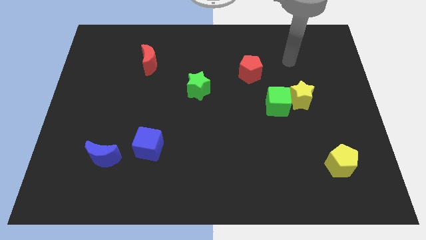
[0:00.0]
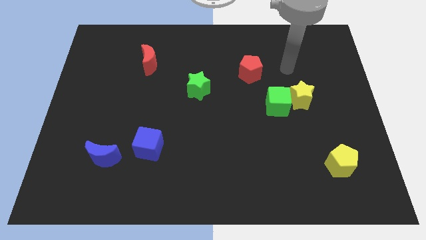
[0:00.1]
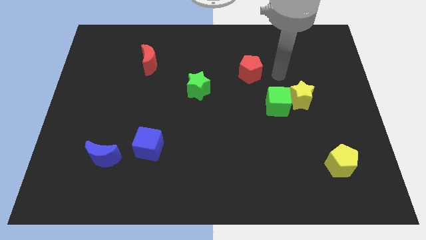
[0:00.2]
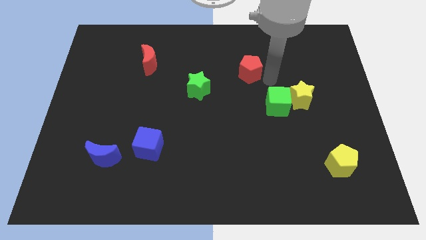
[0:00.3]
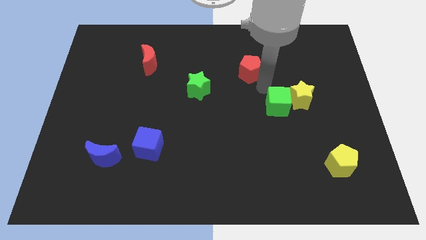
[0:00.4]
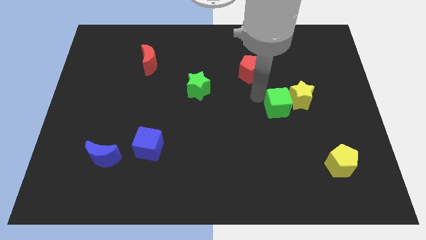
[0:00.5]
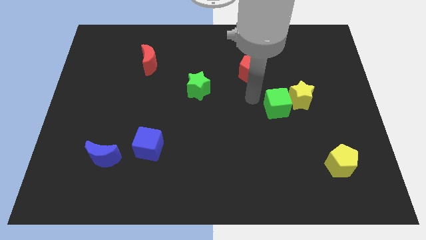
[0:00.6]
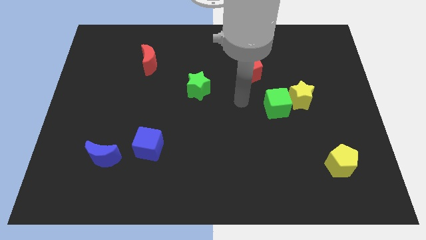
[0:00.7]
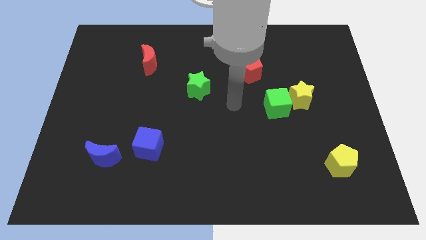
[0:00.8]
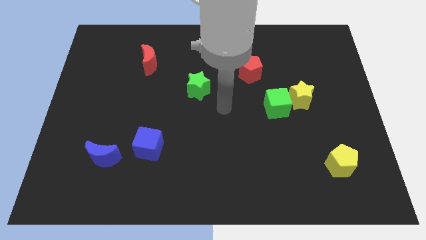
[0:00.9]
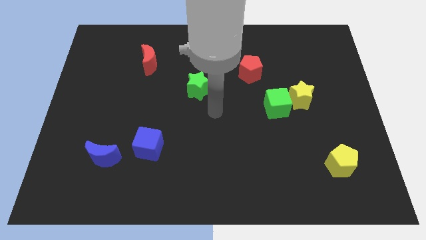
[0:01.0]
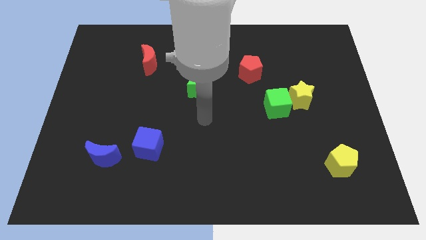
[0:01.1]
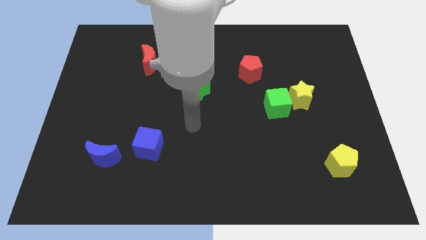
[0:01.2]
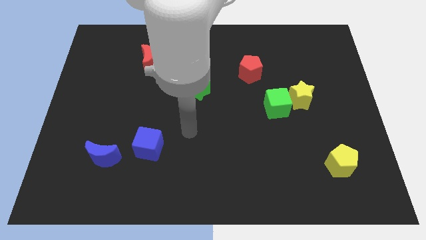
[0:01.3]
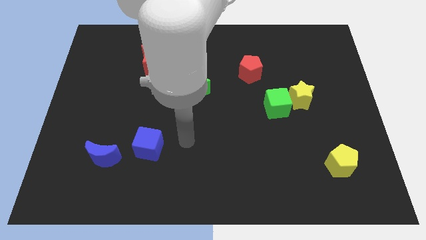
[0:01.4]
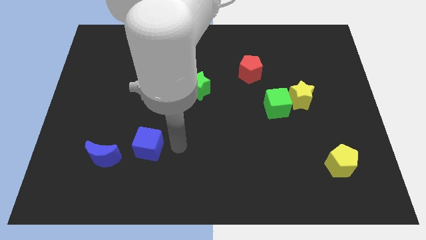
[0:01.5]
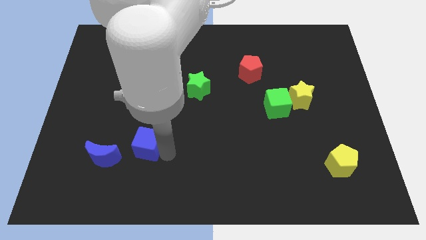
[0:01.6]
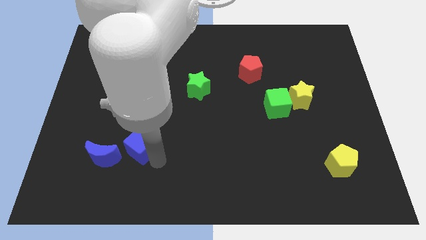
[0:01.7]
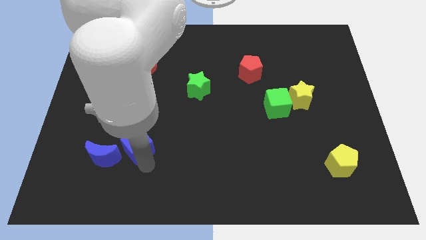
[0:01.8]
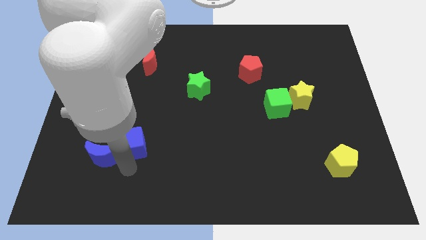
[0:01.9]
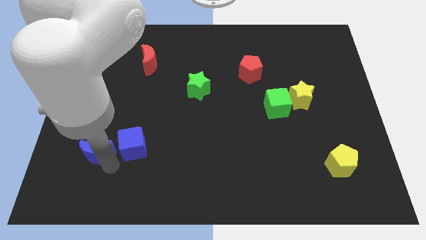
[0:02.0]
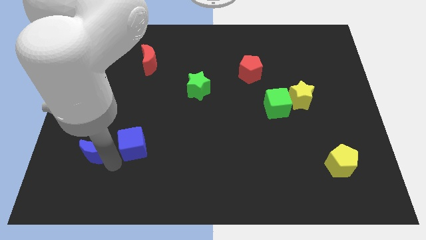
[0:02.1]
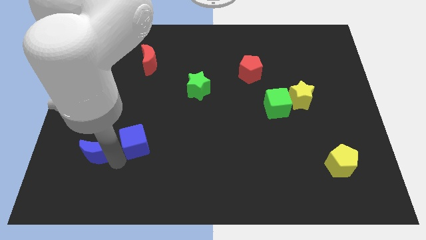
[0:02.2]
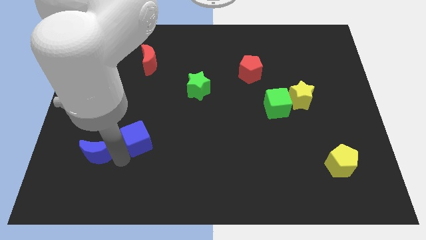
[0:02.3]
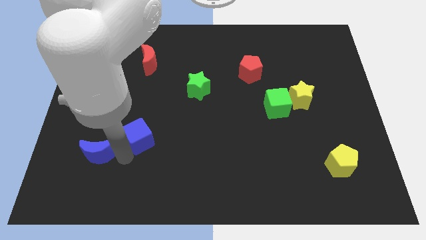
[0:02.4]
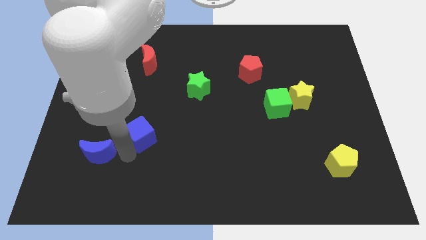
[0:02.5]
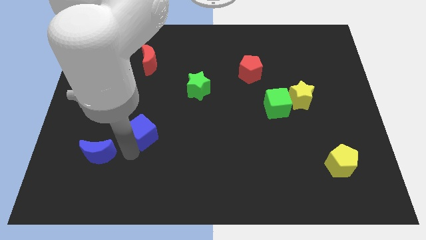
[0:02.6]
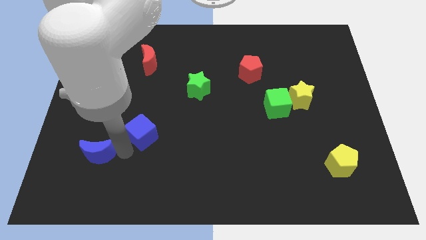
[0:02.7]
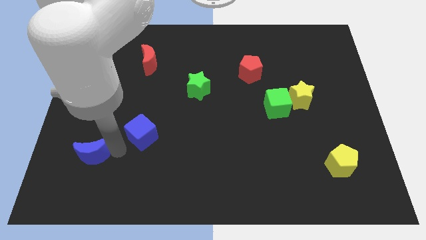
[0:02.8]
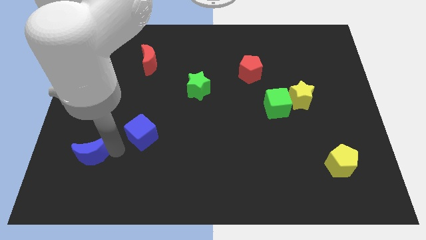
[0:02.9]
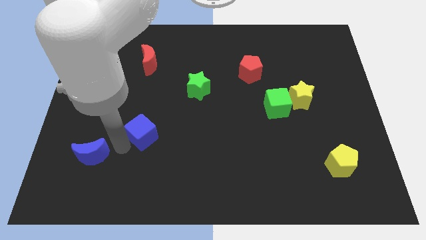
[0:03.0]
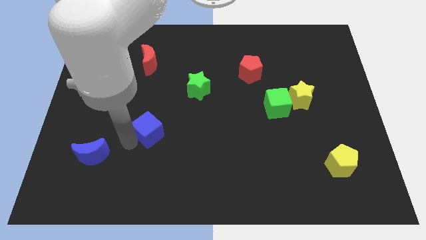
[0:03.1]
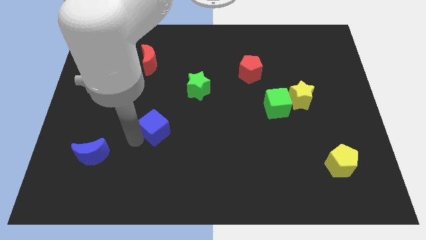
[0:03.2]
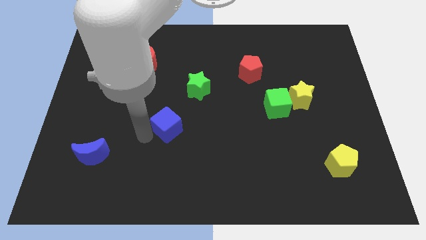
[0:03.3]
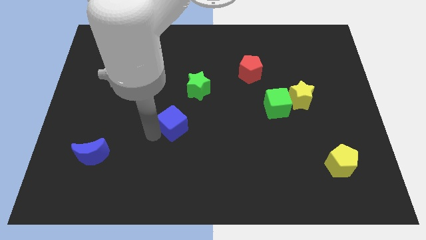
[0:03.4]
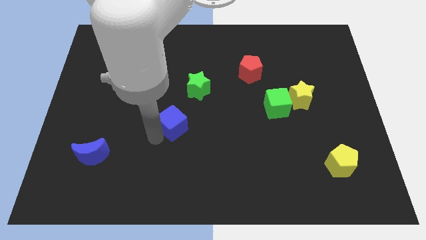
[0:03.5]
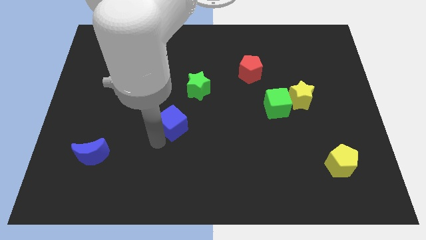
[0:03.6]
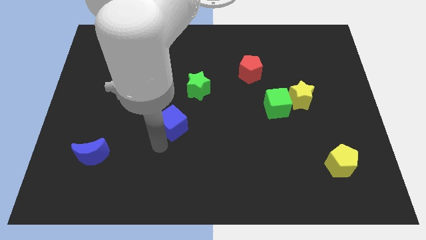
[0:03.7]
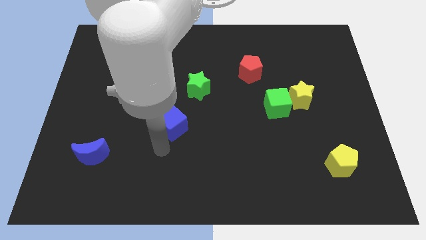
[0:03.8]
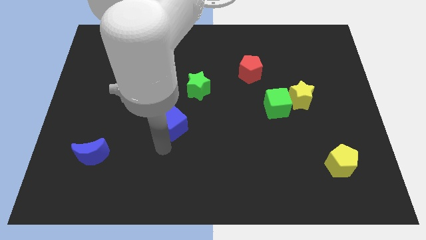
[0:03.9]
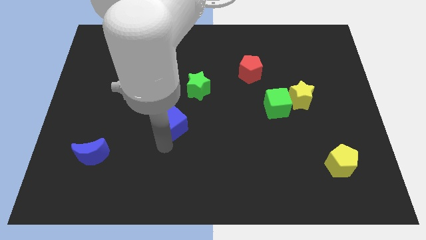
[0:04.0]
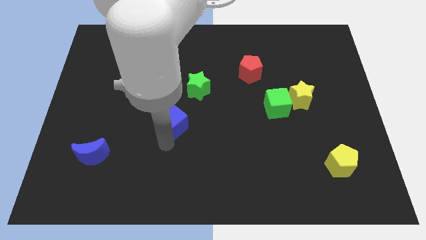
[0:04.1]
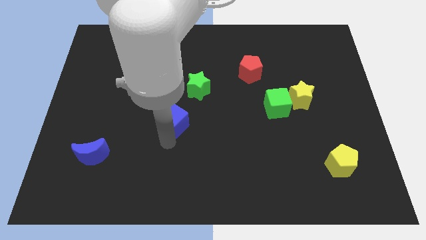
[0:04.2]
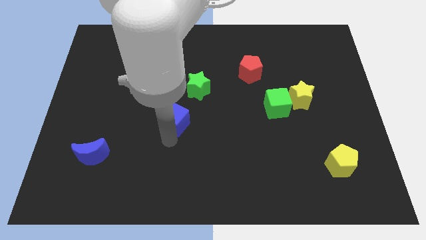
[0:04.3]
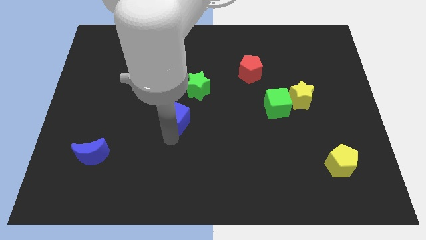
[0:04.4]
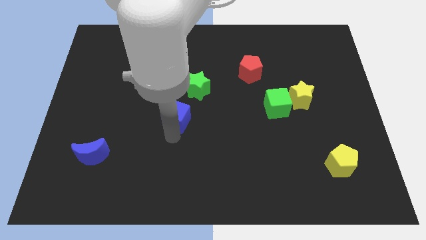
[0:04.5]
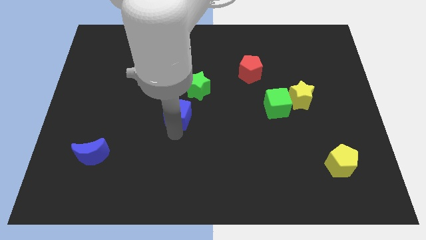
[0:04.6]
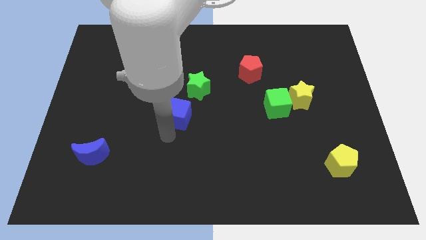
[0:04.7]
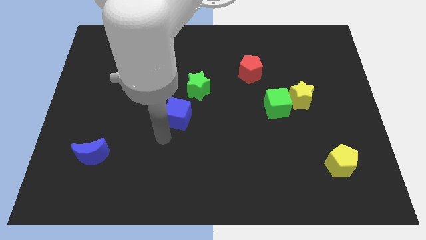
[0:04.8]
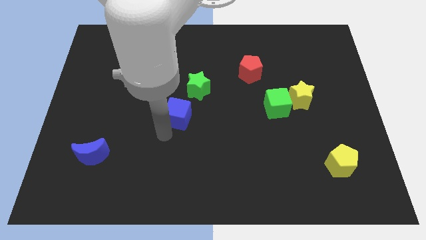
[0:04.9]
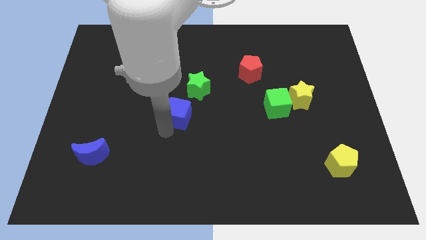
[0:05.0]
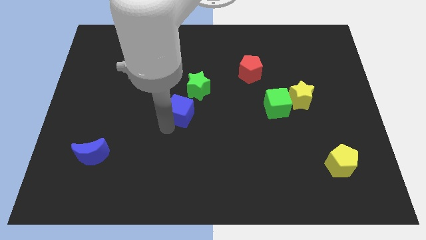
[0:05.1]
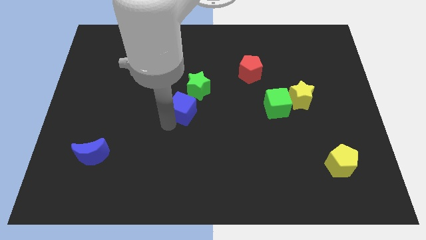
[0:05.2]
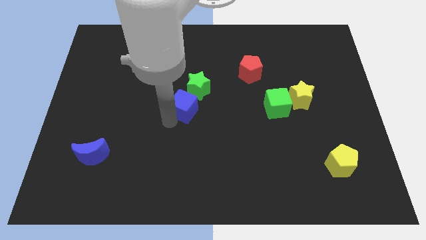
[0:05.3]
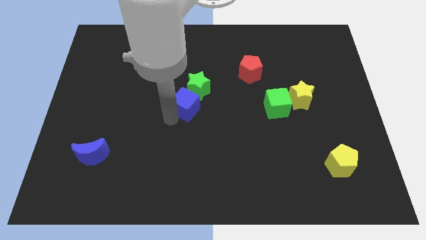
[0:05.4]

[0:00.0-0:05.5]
slide the blue cube to the green star
